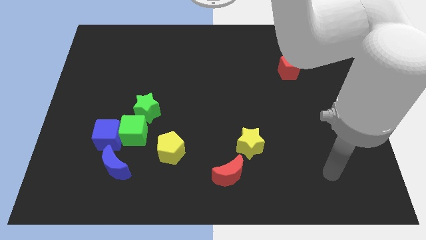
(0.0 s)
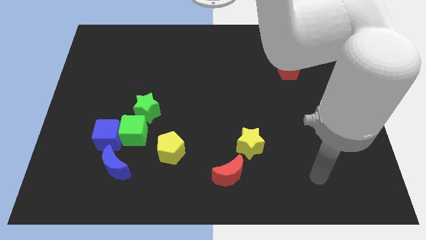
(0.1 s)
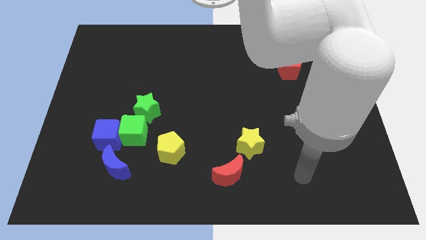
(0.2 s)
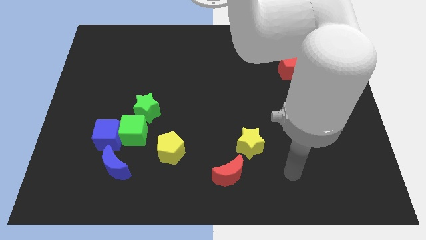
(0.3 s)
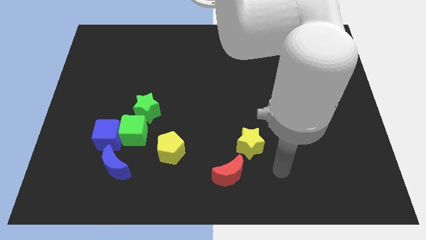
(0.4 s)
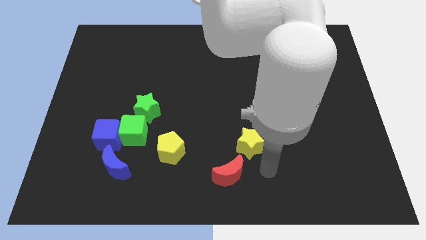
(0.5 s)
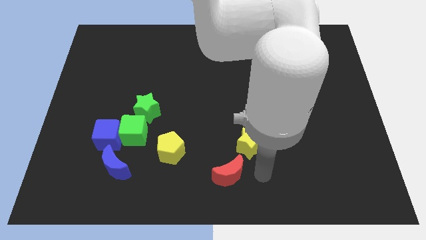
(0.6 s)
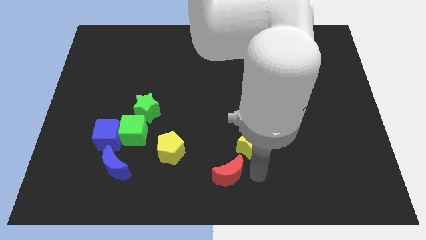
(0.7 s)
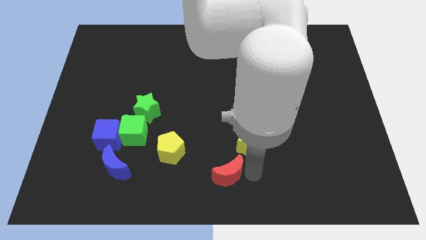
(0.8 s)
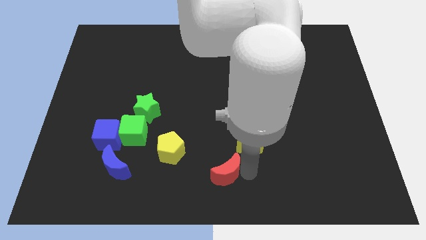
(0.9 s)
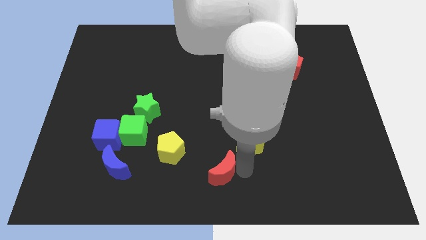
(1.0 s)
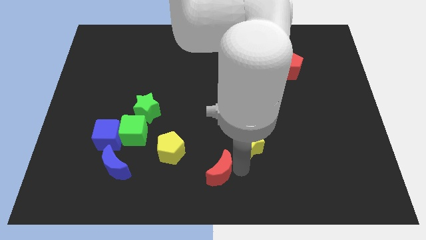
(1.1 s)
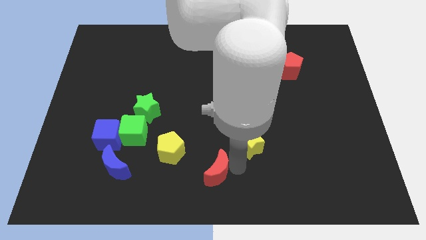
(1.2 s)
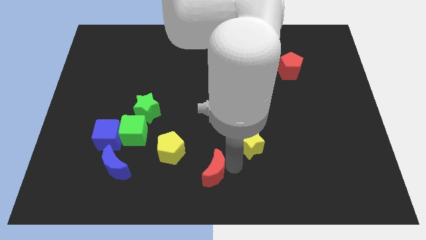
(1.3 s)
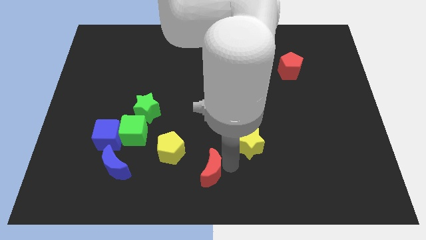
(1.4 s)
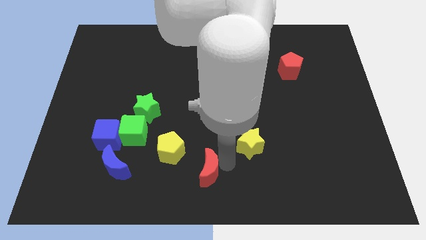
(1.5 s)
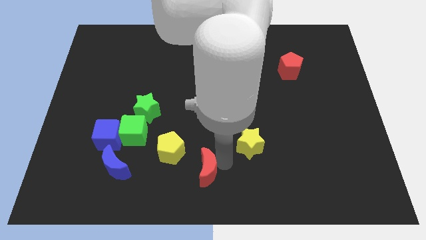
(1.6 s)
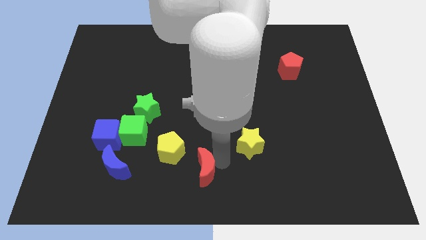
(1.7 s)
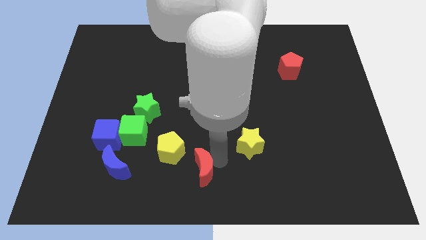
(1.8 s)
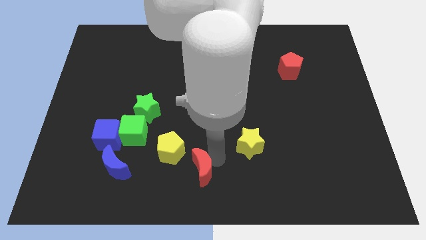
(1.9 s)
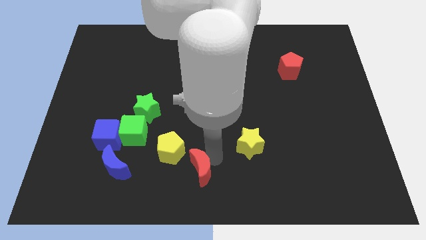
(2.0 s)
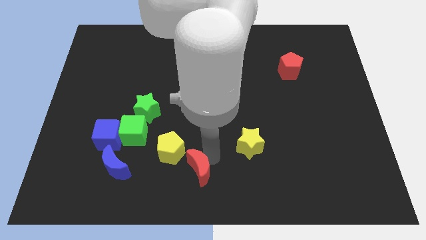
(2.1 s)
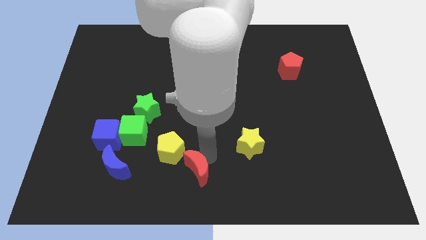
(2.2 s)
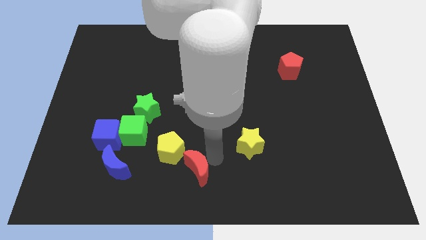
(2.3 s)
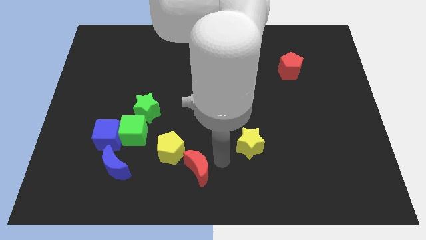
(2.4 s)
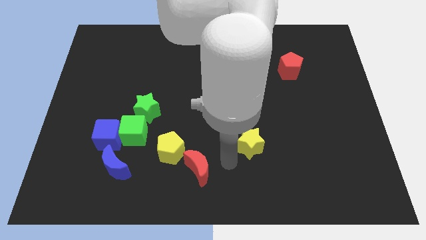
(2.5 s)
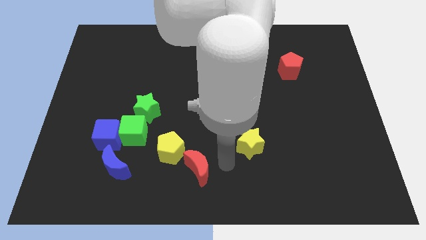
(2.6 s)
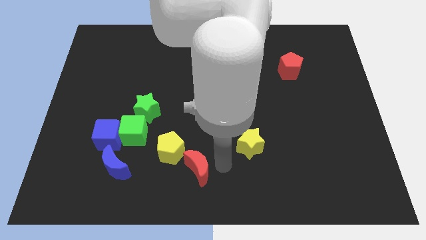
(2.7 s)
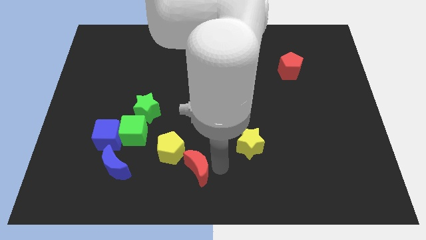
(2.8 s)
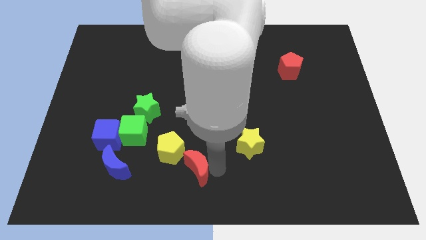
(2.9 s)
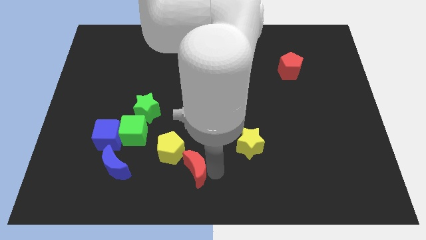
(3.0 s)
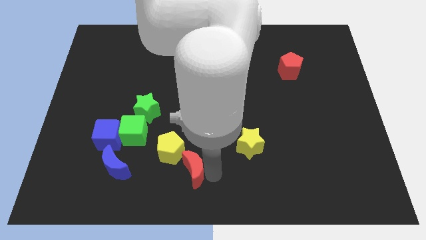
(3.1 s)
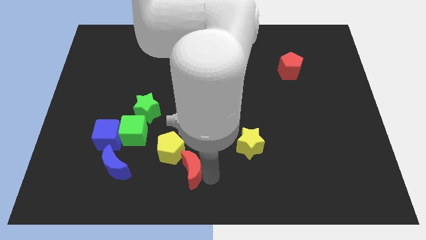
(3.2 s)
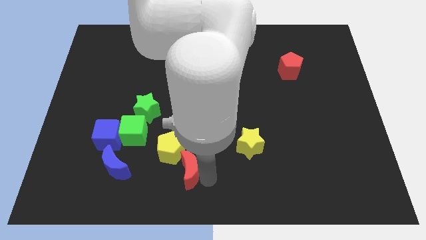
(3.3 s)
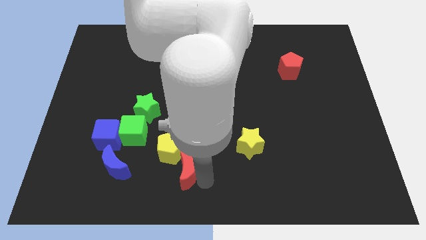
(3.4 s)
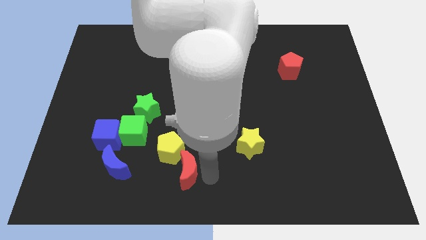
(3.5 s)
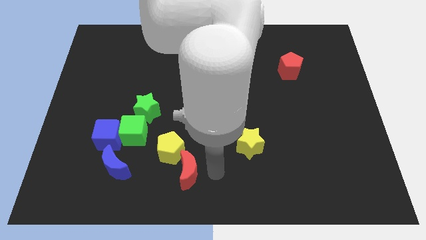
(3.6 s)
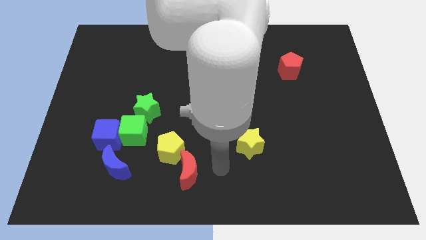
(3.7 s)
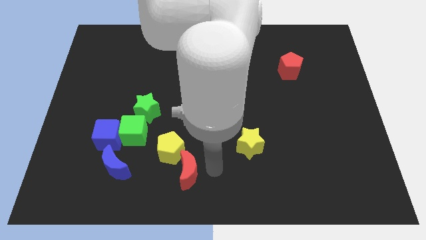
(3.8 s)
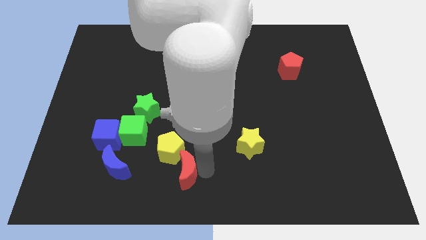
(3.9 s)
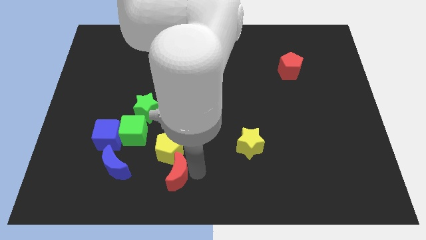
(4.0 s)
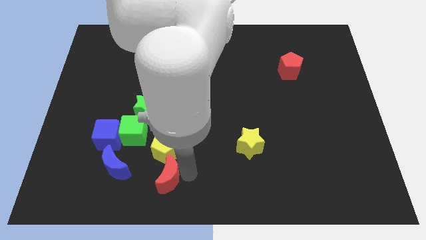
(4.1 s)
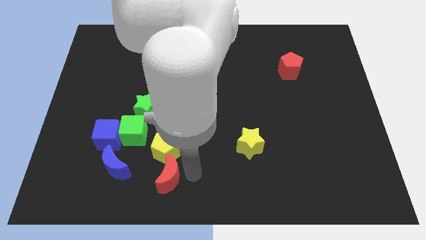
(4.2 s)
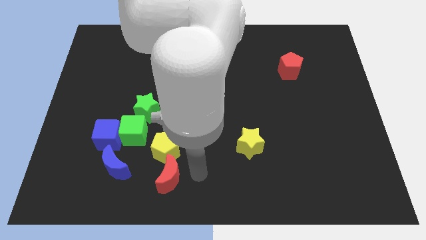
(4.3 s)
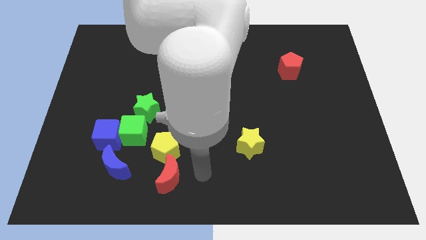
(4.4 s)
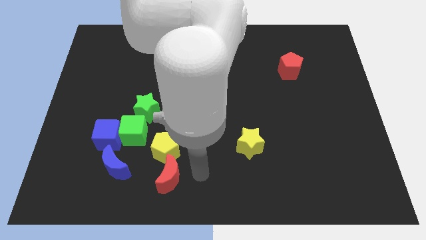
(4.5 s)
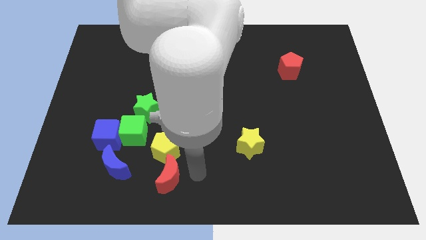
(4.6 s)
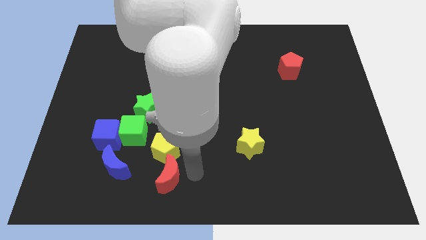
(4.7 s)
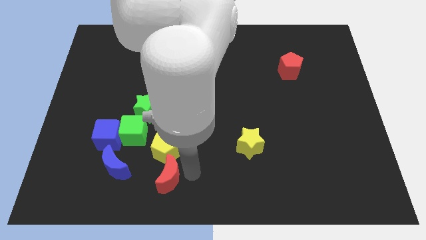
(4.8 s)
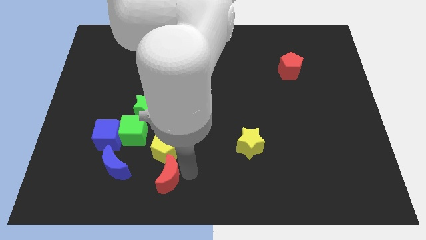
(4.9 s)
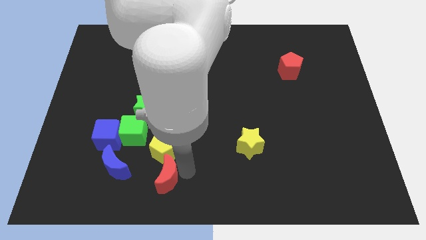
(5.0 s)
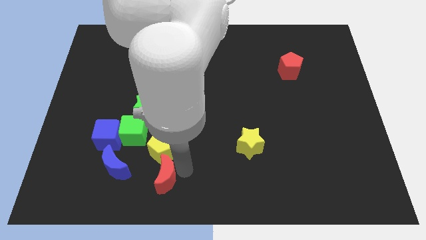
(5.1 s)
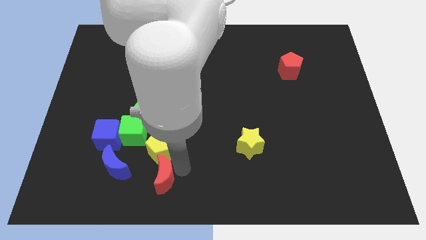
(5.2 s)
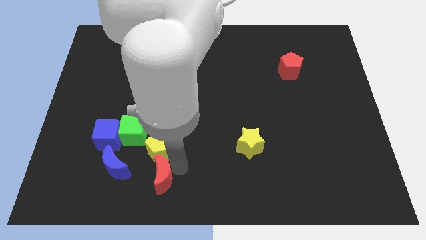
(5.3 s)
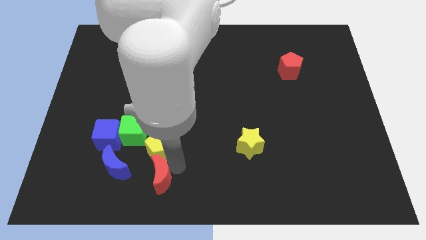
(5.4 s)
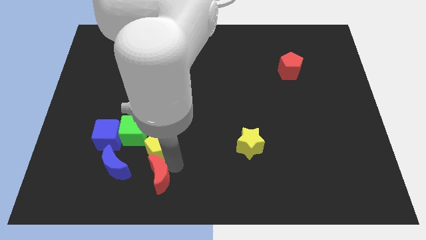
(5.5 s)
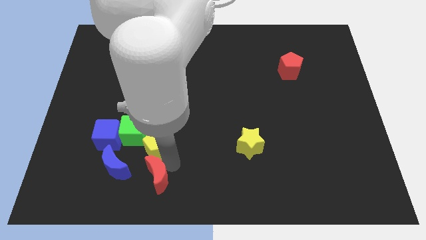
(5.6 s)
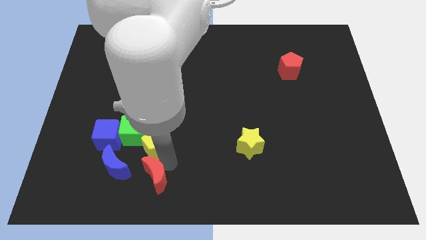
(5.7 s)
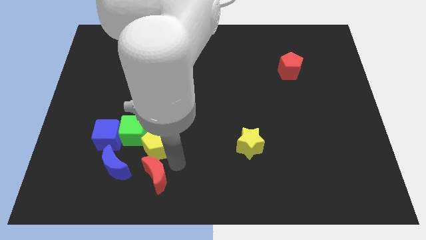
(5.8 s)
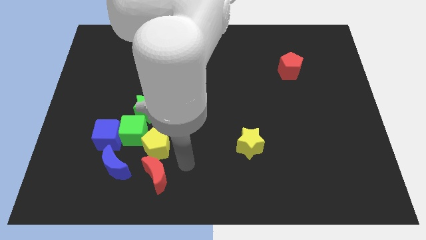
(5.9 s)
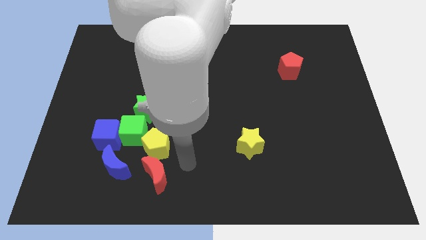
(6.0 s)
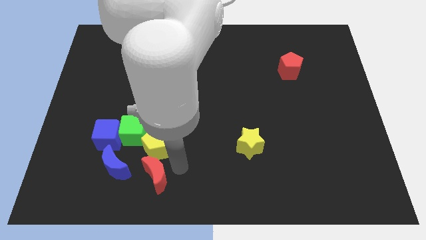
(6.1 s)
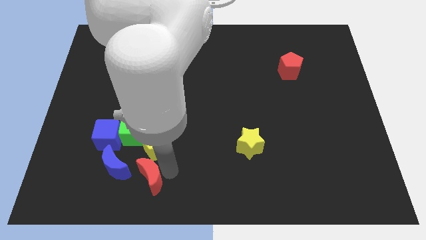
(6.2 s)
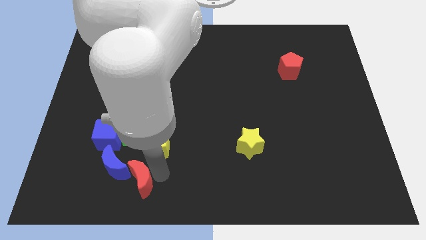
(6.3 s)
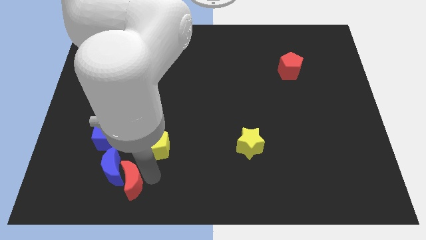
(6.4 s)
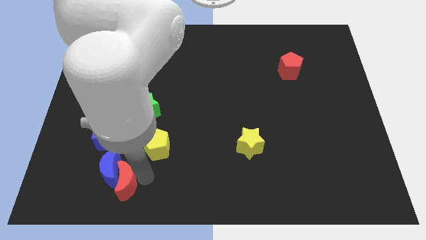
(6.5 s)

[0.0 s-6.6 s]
slide the red moon left

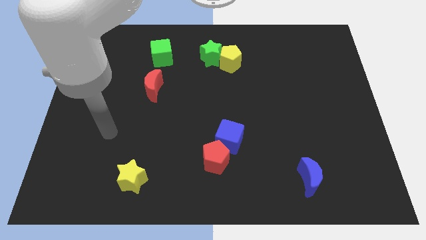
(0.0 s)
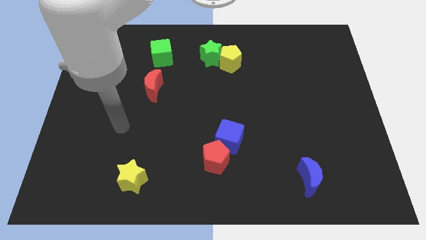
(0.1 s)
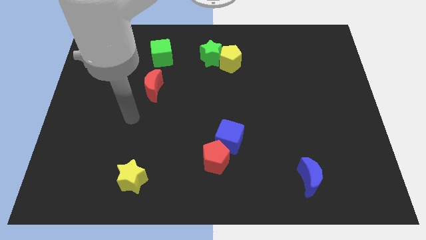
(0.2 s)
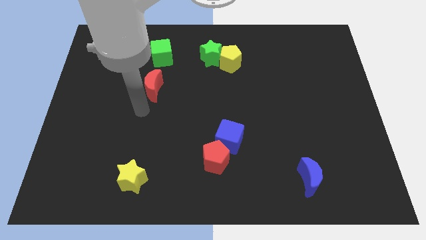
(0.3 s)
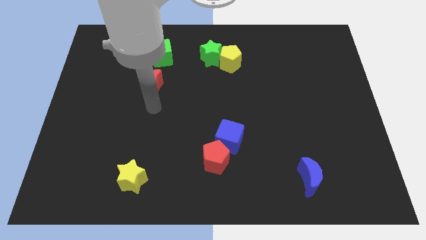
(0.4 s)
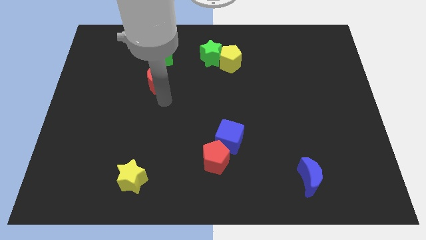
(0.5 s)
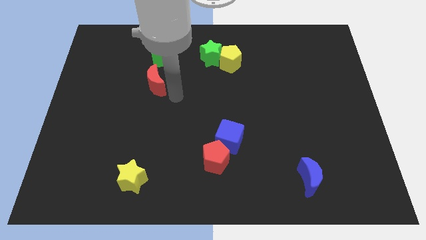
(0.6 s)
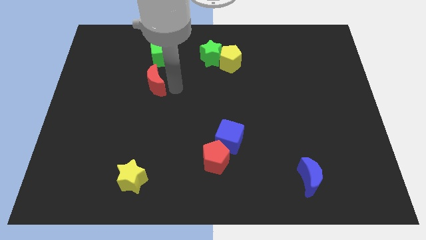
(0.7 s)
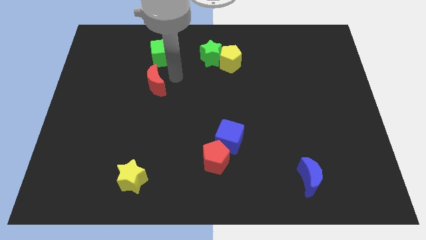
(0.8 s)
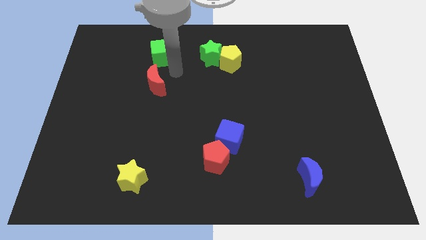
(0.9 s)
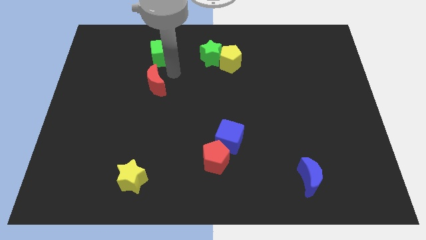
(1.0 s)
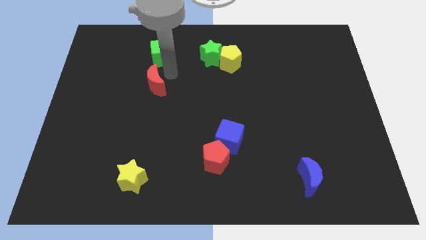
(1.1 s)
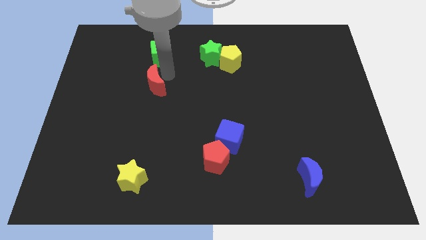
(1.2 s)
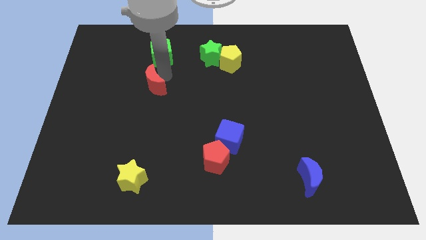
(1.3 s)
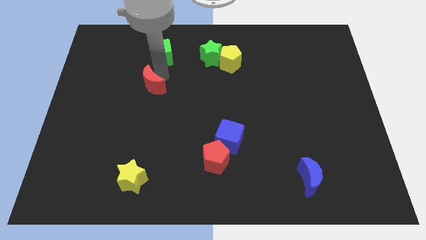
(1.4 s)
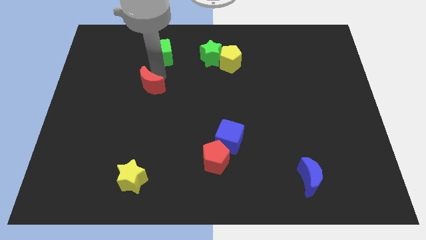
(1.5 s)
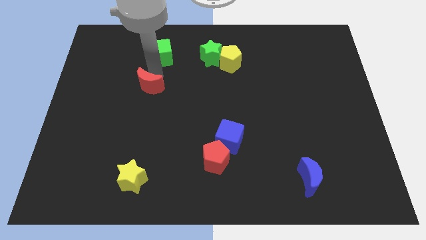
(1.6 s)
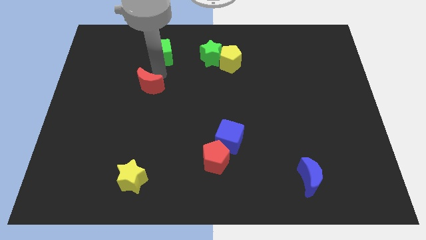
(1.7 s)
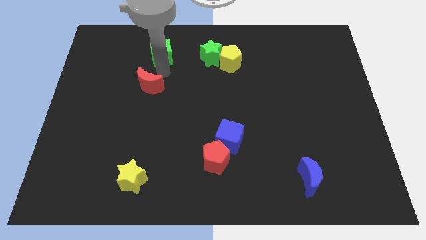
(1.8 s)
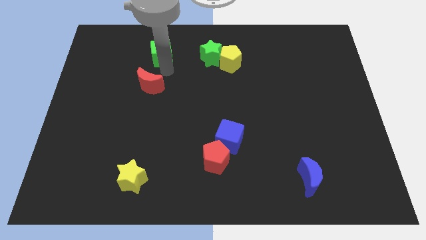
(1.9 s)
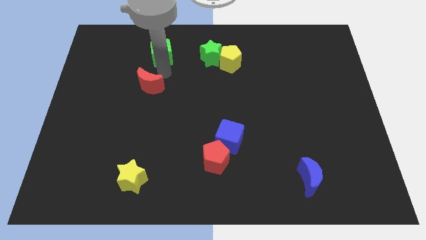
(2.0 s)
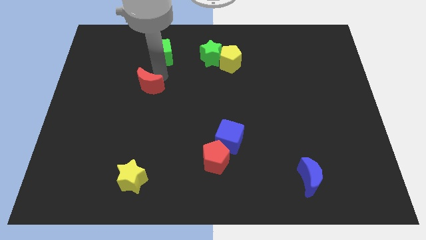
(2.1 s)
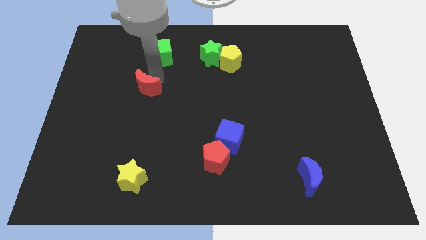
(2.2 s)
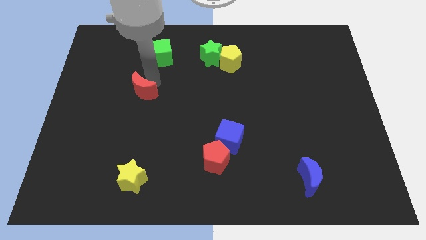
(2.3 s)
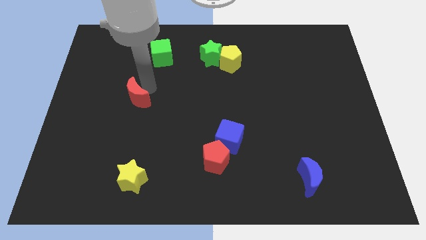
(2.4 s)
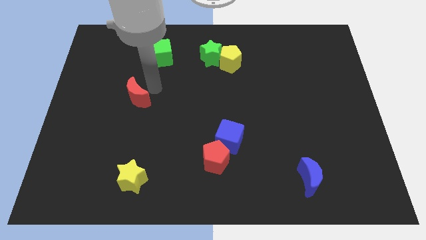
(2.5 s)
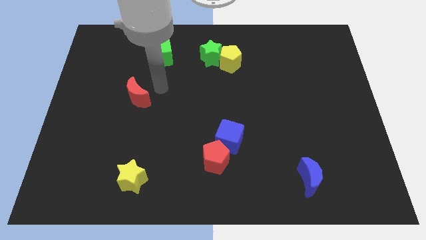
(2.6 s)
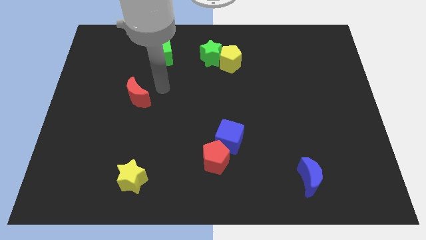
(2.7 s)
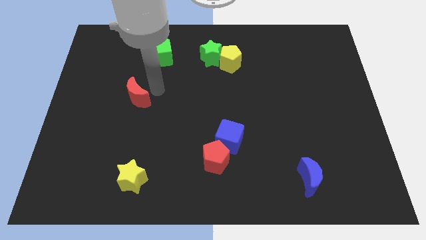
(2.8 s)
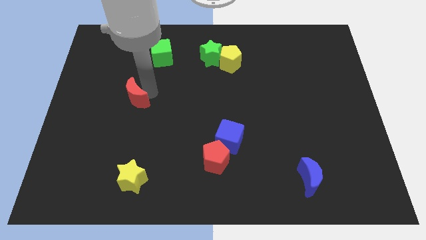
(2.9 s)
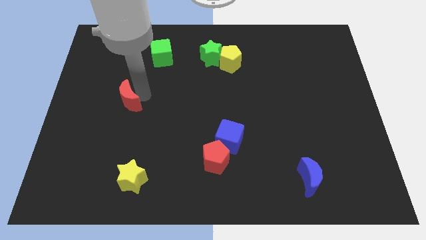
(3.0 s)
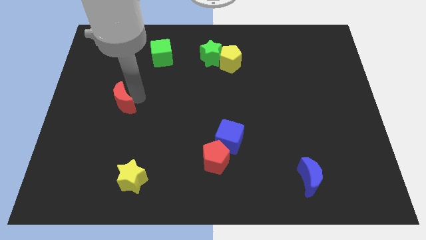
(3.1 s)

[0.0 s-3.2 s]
push the red moon down and then to the left somewhat
